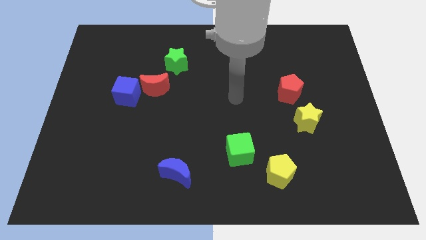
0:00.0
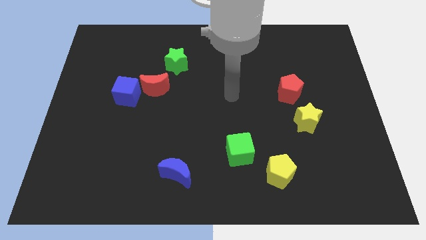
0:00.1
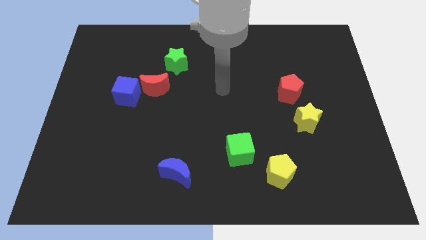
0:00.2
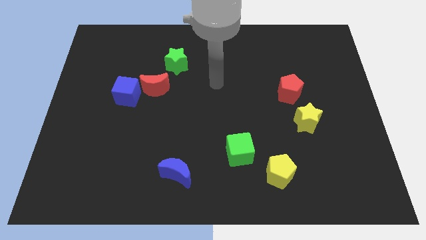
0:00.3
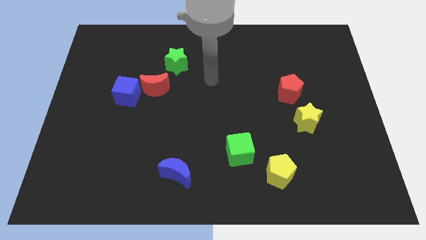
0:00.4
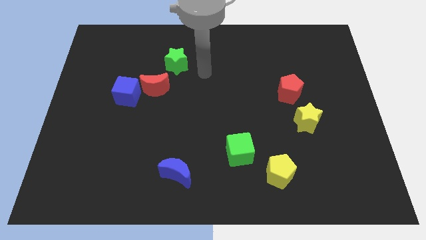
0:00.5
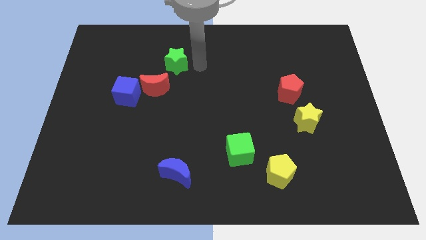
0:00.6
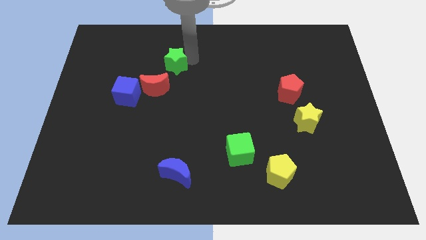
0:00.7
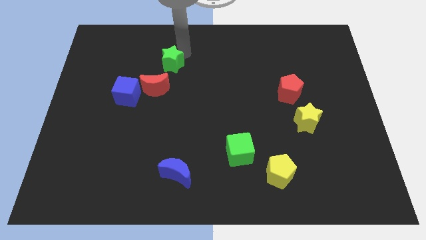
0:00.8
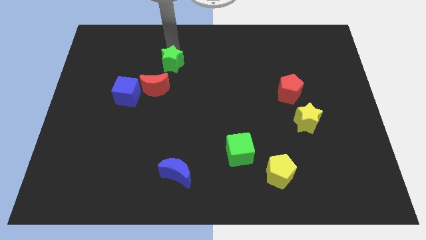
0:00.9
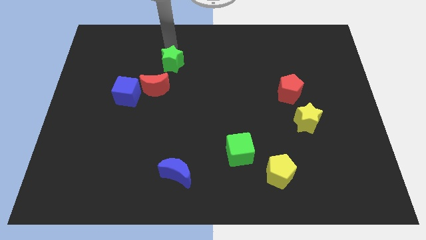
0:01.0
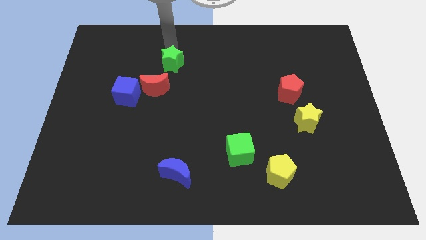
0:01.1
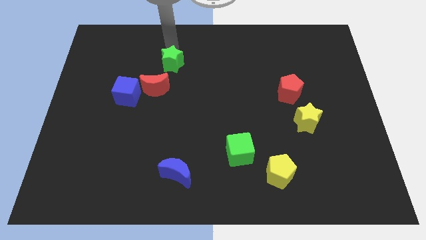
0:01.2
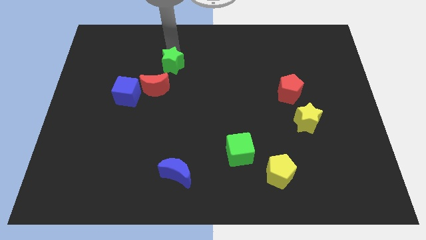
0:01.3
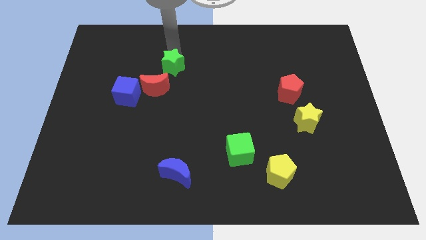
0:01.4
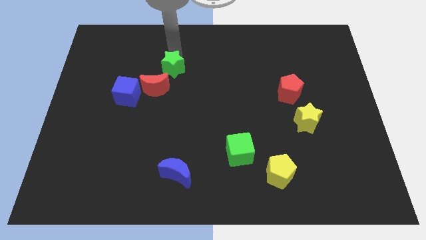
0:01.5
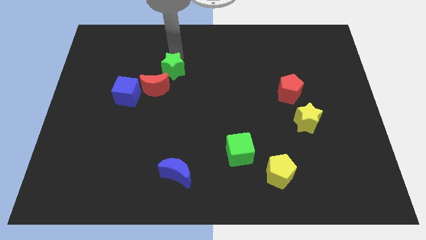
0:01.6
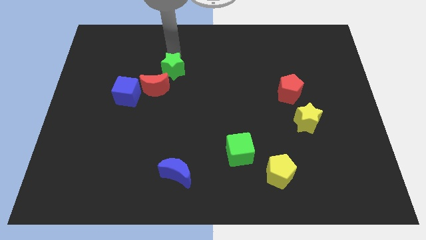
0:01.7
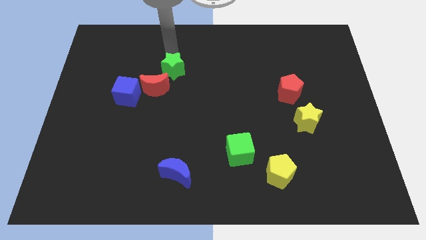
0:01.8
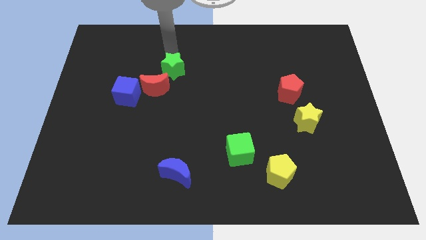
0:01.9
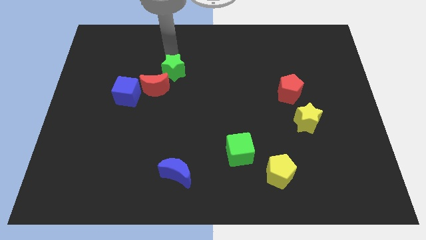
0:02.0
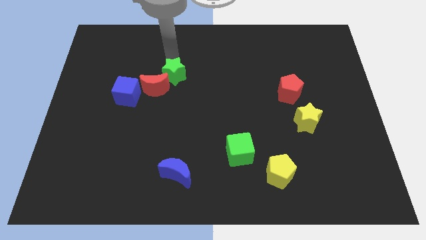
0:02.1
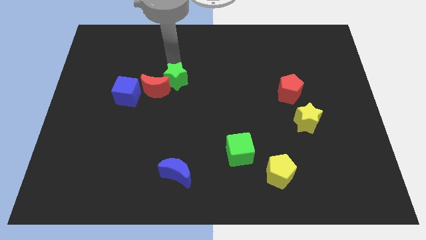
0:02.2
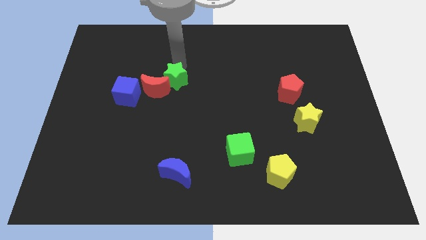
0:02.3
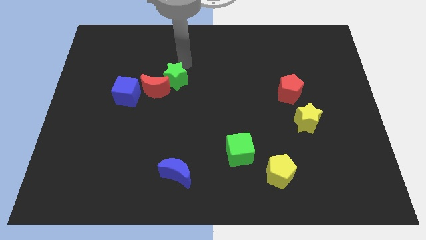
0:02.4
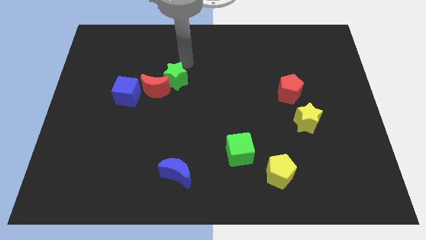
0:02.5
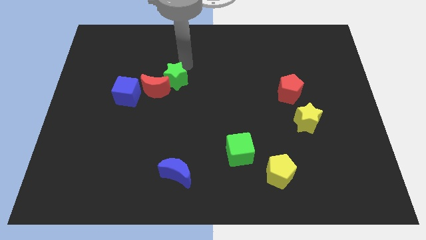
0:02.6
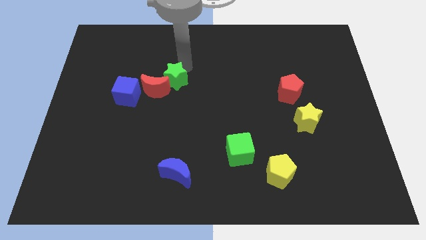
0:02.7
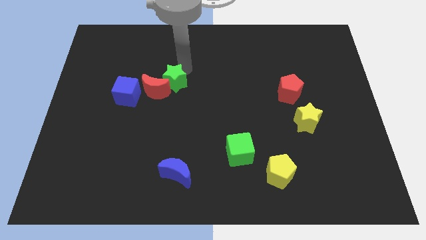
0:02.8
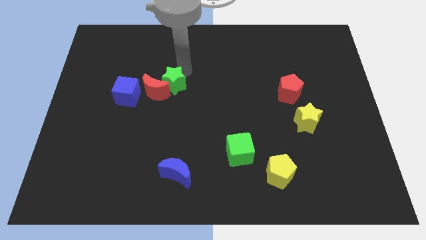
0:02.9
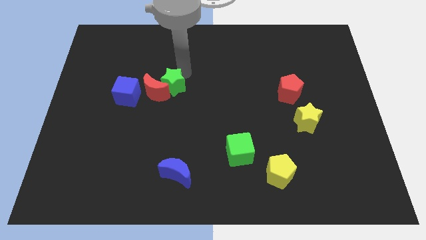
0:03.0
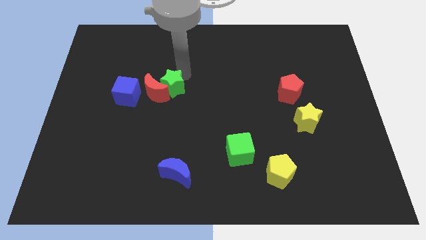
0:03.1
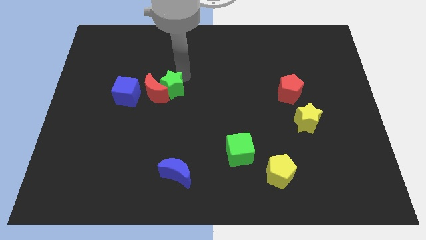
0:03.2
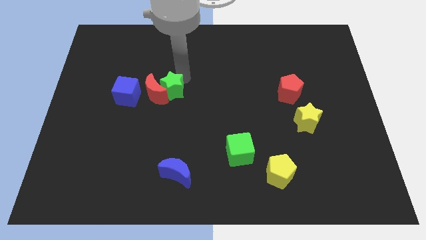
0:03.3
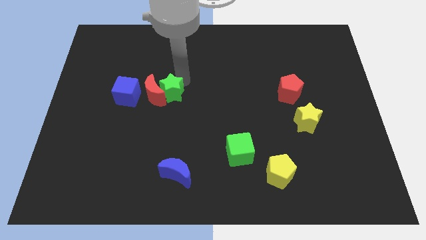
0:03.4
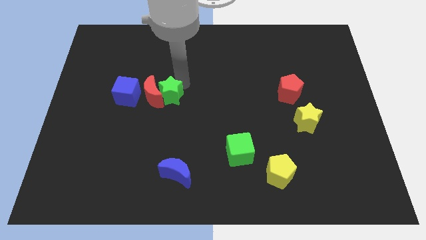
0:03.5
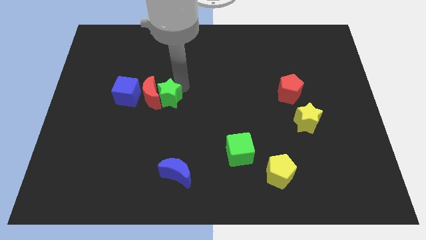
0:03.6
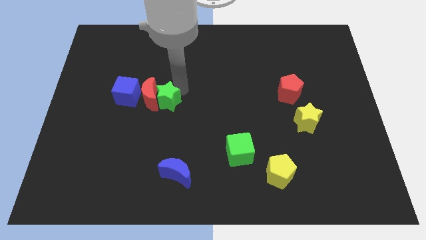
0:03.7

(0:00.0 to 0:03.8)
push the green star a little bit down and then to the left

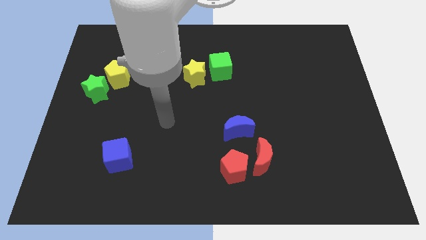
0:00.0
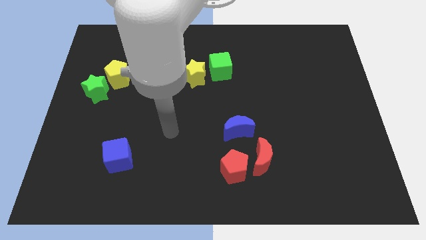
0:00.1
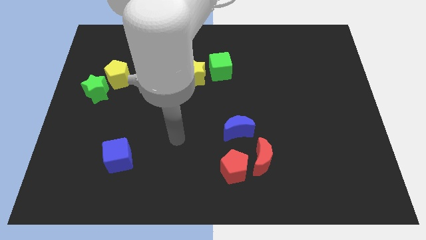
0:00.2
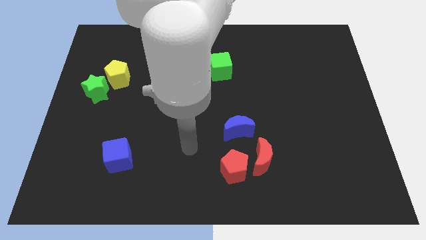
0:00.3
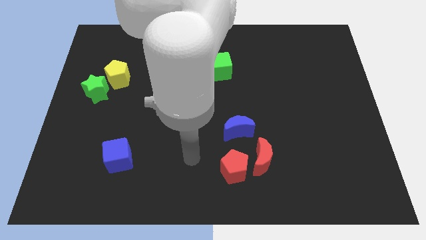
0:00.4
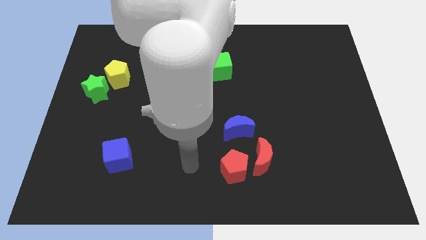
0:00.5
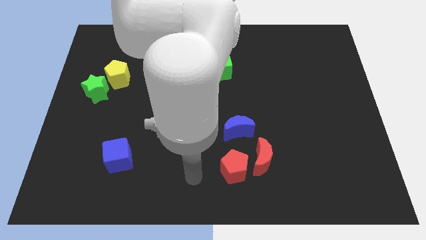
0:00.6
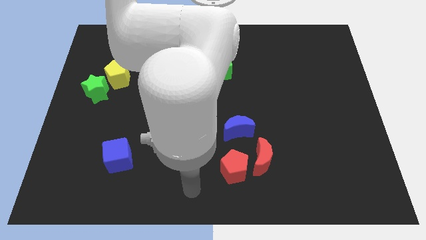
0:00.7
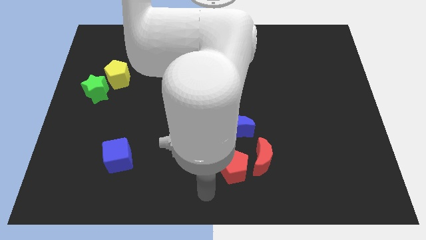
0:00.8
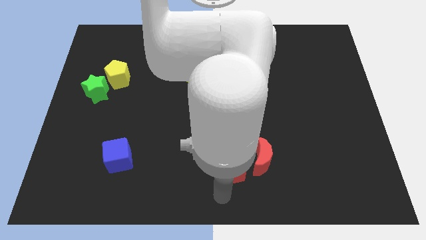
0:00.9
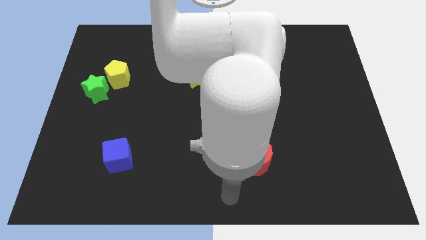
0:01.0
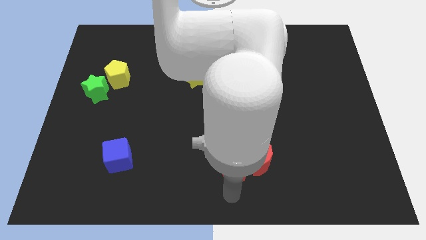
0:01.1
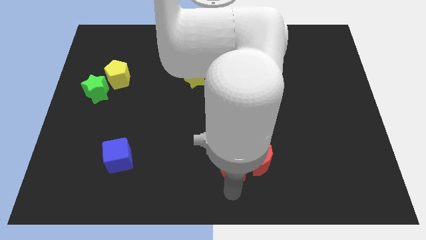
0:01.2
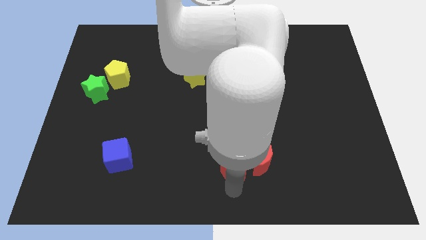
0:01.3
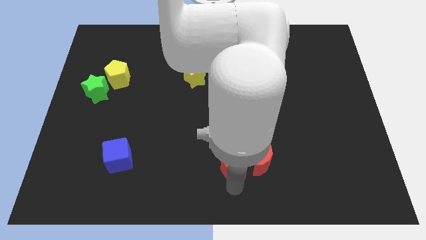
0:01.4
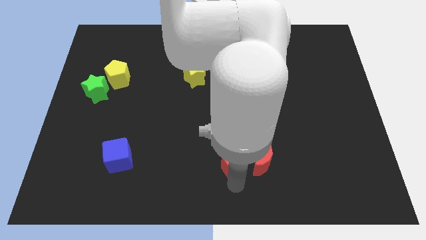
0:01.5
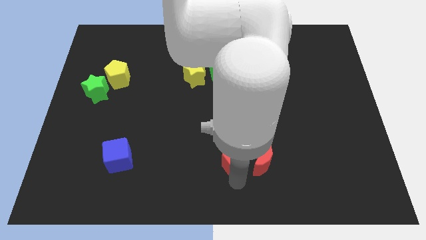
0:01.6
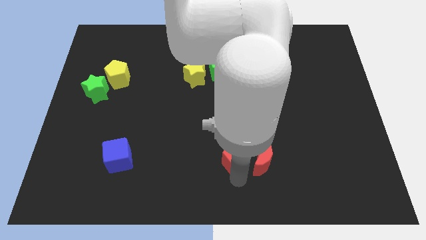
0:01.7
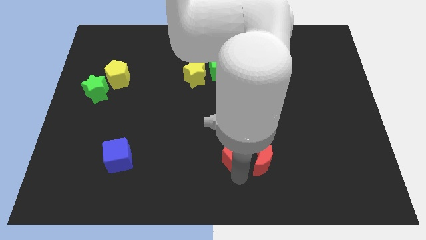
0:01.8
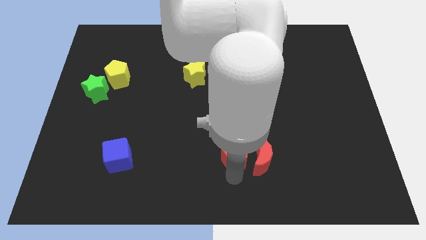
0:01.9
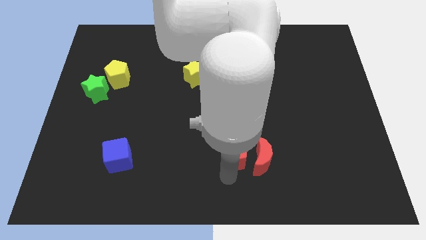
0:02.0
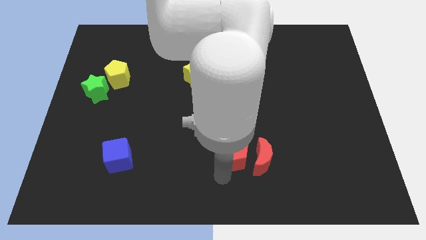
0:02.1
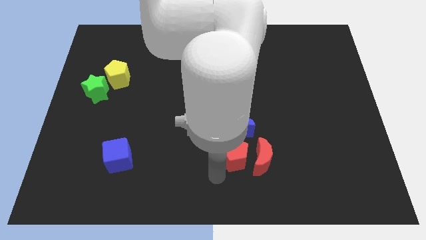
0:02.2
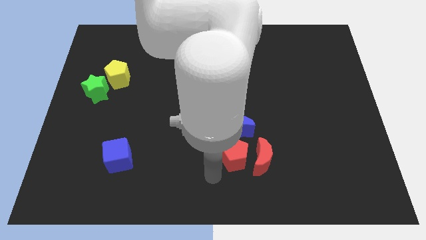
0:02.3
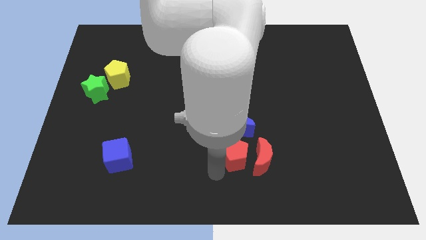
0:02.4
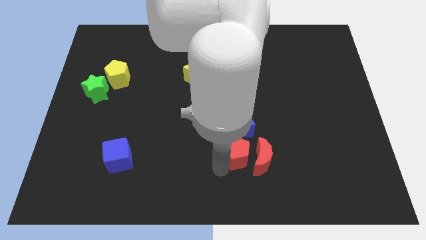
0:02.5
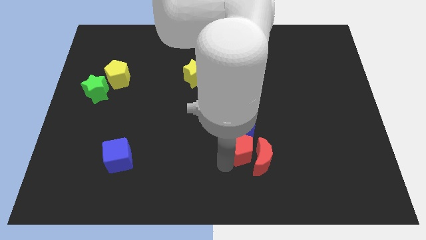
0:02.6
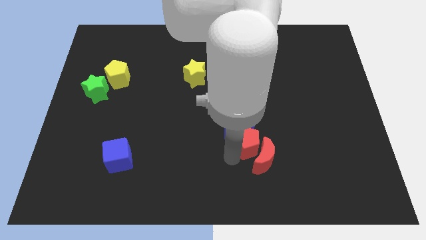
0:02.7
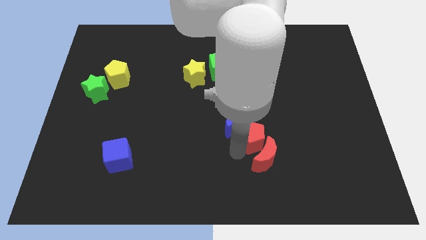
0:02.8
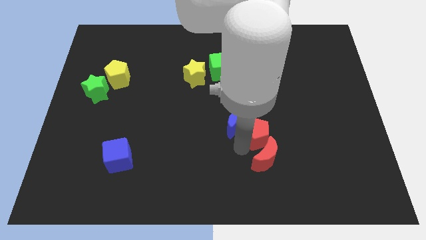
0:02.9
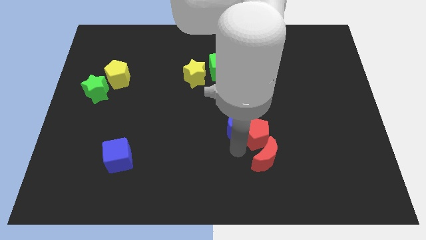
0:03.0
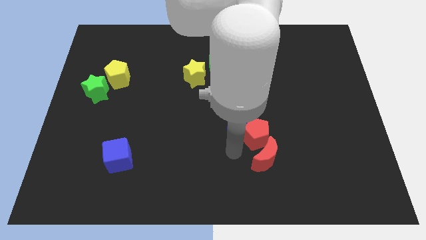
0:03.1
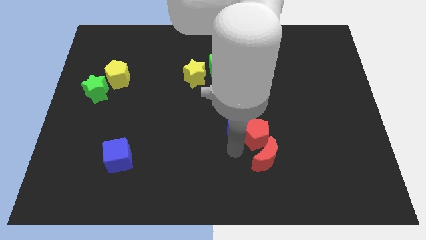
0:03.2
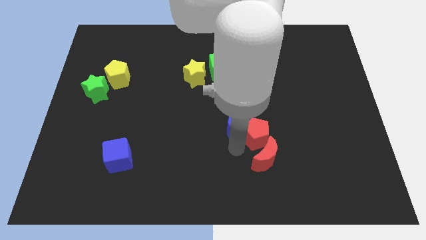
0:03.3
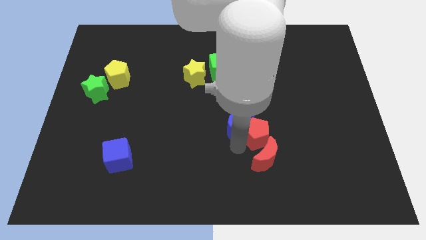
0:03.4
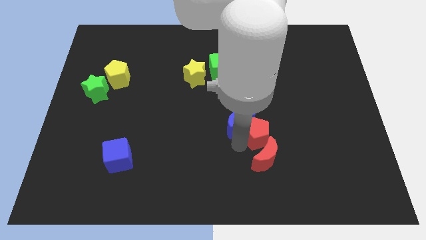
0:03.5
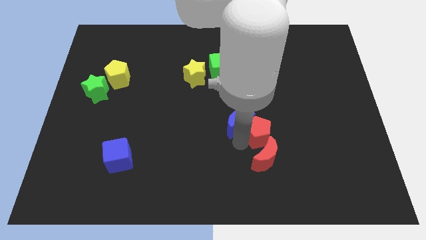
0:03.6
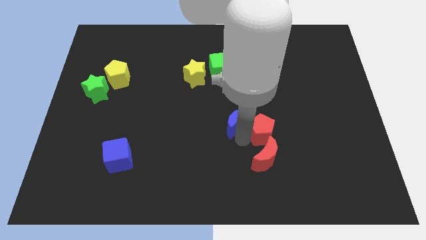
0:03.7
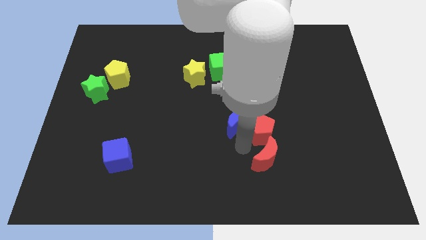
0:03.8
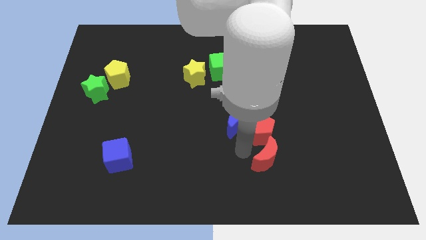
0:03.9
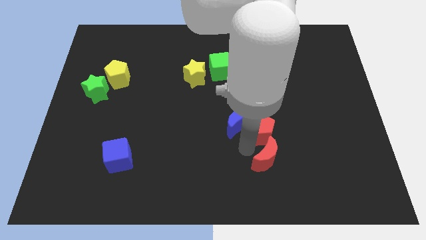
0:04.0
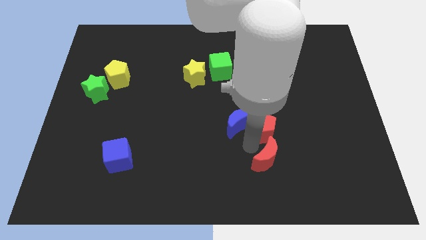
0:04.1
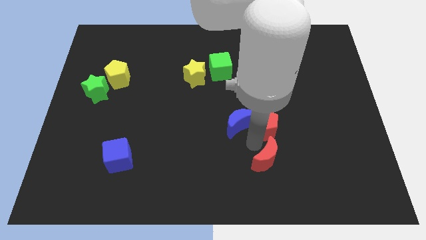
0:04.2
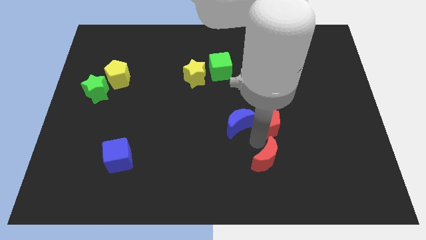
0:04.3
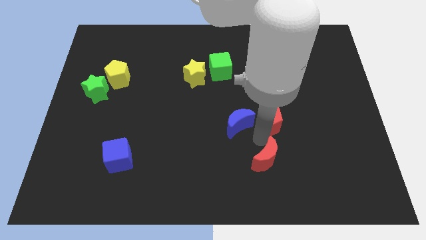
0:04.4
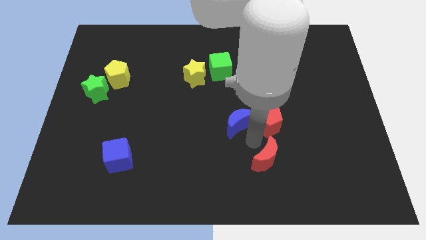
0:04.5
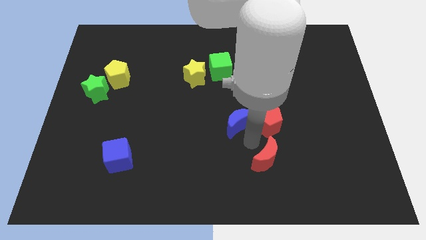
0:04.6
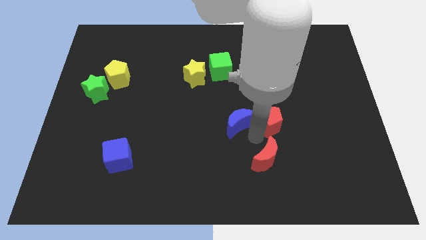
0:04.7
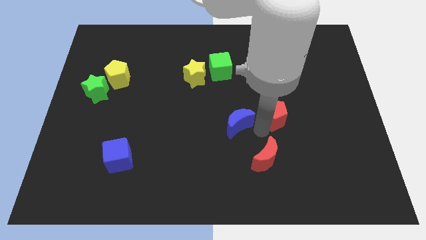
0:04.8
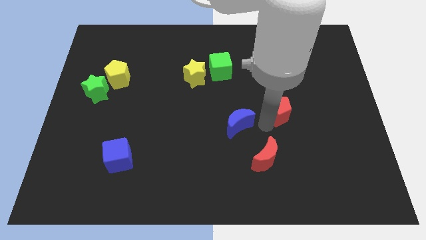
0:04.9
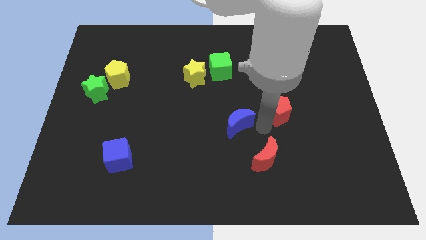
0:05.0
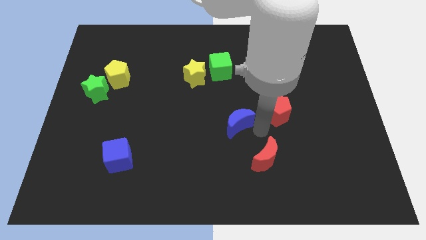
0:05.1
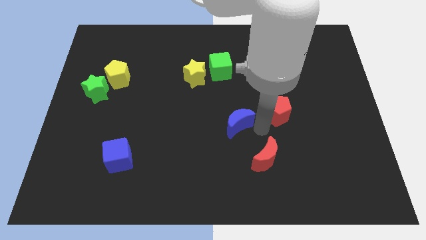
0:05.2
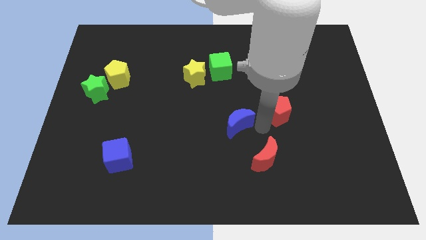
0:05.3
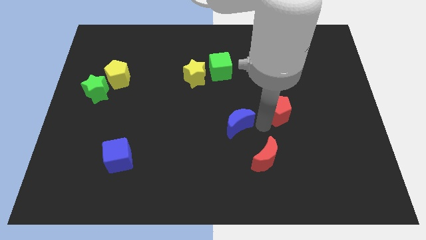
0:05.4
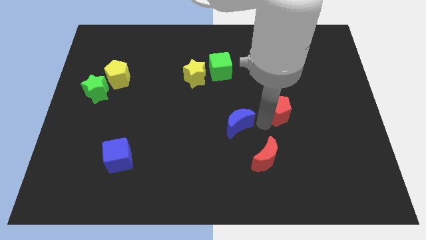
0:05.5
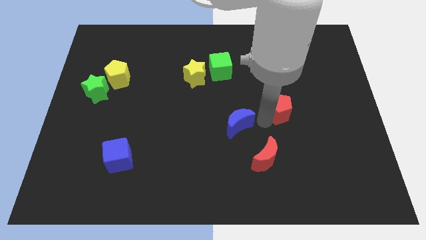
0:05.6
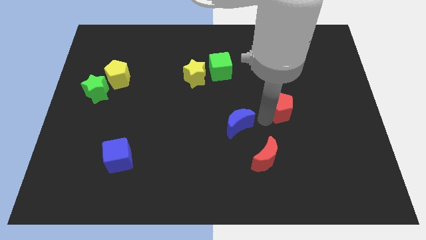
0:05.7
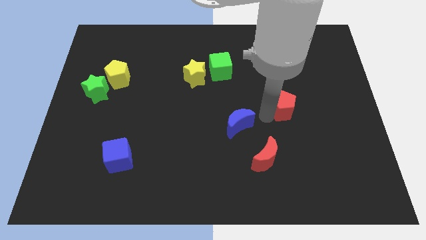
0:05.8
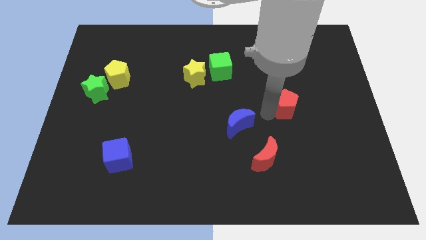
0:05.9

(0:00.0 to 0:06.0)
slide the red pentagon diagonally up and right
